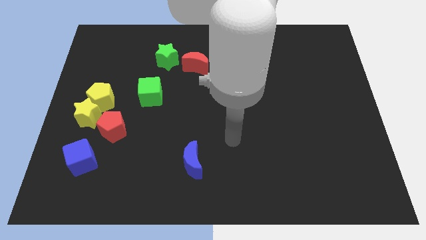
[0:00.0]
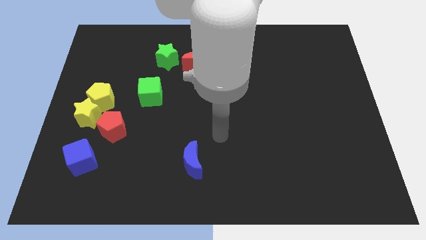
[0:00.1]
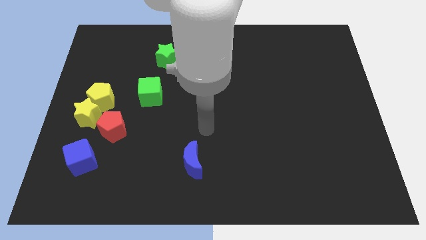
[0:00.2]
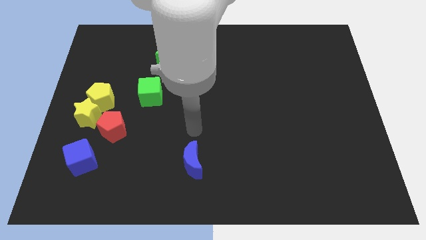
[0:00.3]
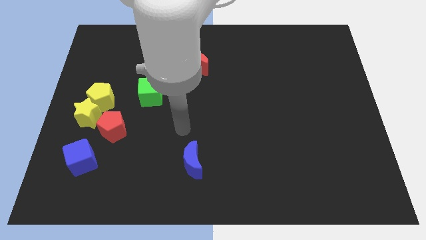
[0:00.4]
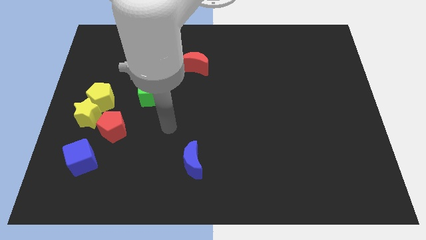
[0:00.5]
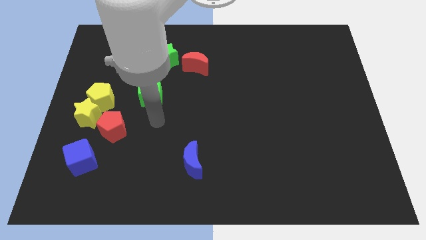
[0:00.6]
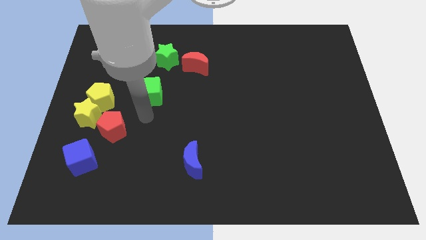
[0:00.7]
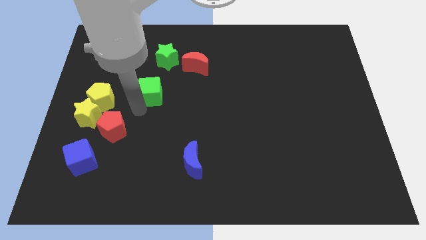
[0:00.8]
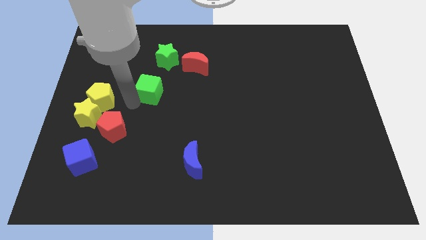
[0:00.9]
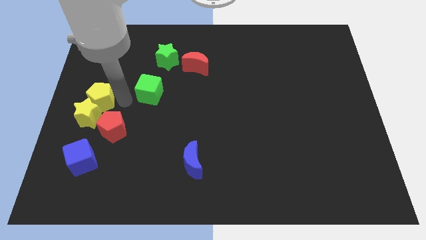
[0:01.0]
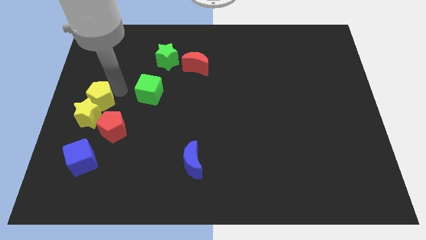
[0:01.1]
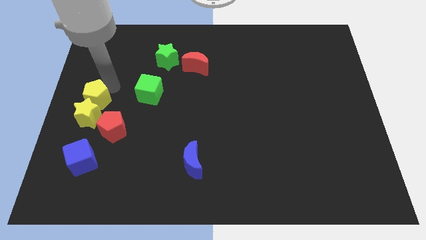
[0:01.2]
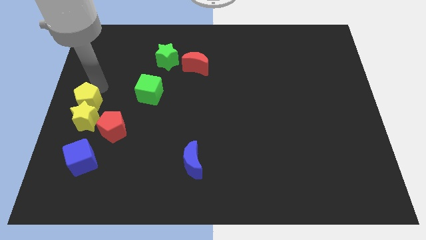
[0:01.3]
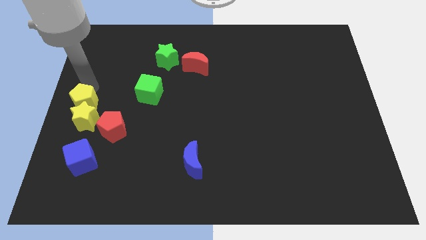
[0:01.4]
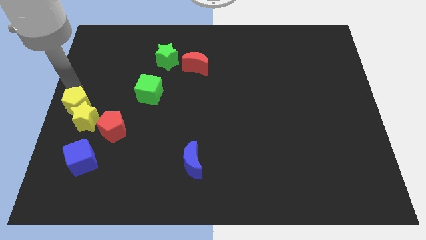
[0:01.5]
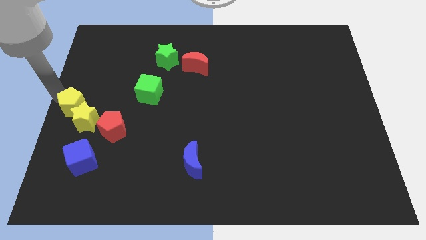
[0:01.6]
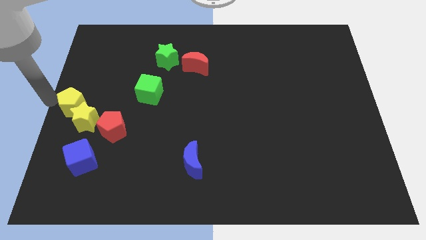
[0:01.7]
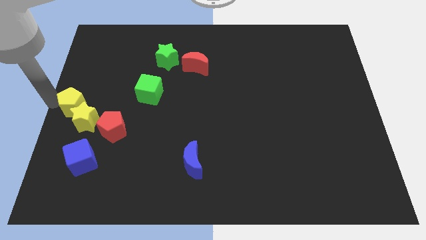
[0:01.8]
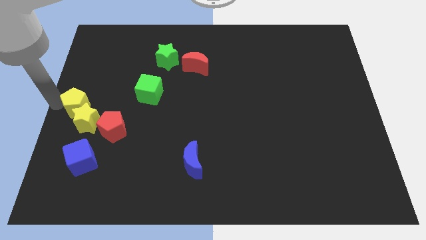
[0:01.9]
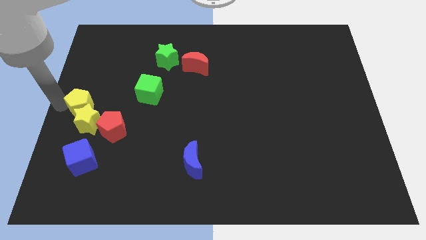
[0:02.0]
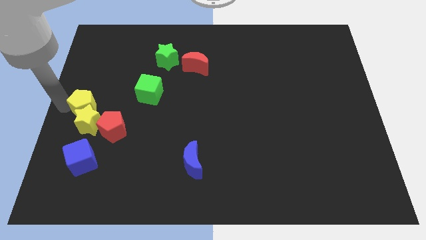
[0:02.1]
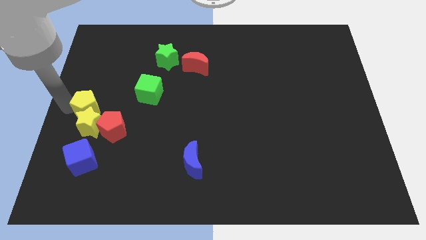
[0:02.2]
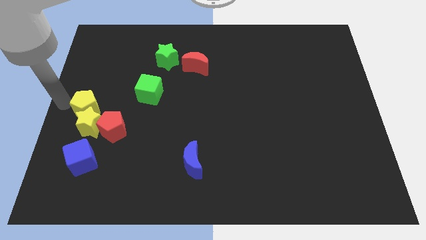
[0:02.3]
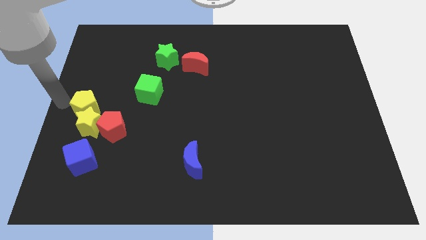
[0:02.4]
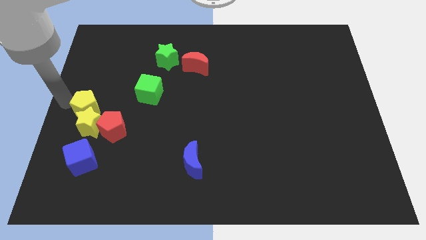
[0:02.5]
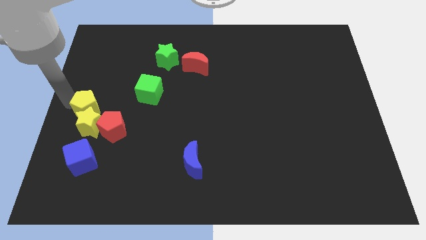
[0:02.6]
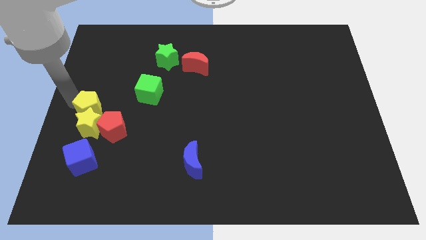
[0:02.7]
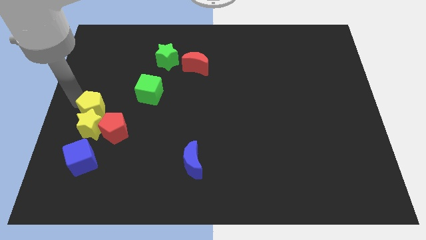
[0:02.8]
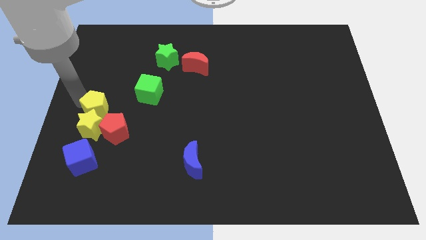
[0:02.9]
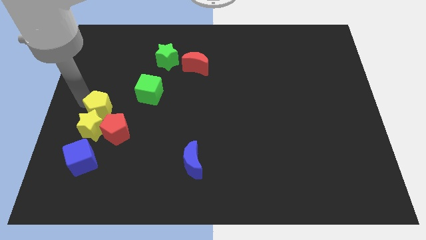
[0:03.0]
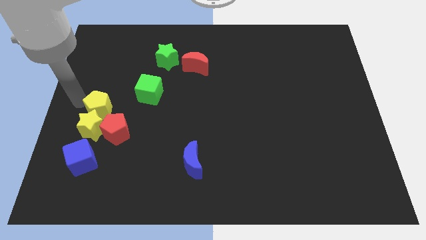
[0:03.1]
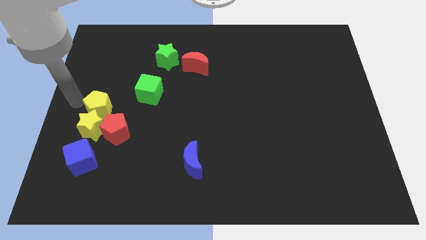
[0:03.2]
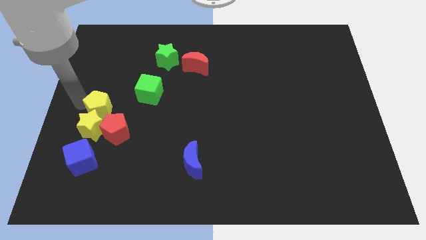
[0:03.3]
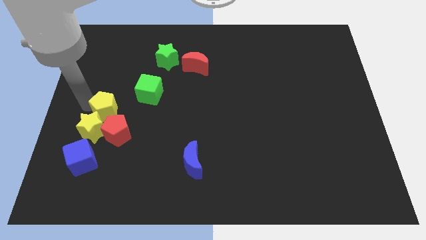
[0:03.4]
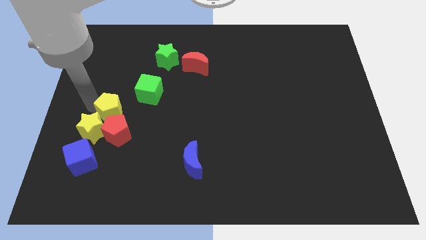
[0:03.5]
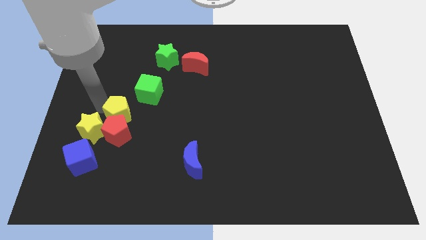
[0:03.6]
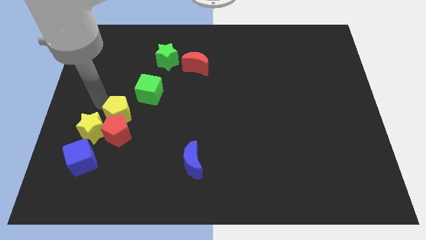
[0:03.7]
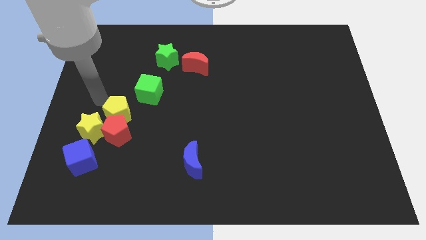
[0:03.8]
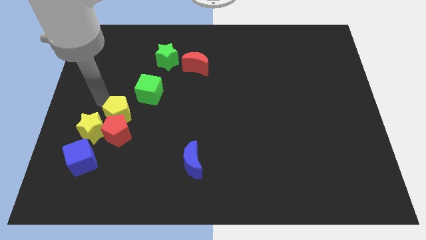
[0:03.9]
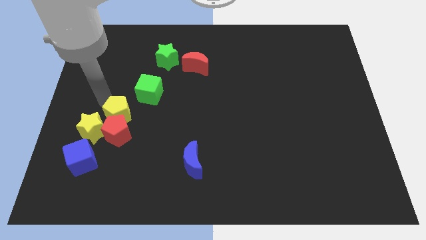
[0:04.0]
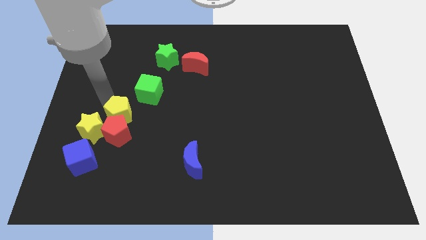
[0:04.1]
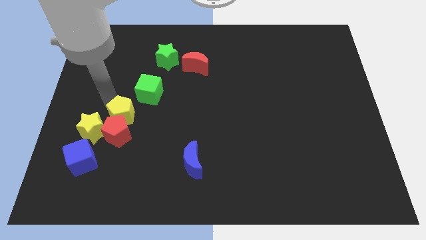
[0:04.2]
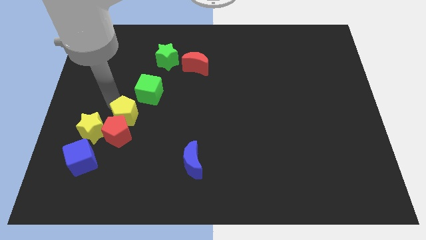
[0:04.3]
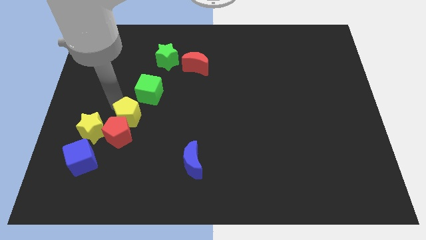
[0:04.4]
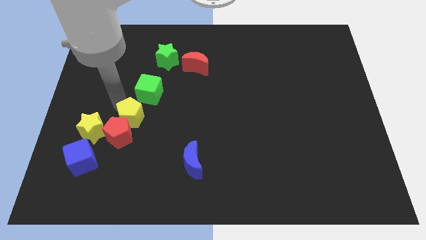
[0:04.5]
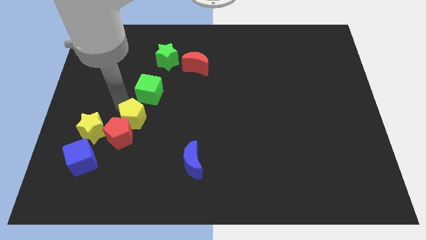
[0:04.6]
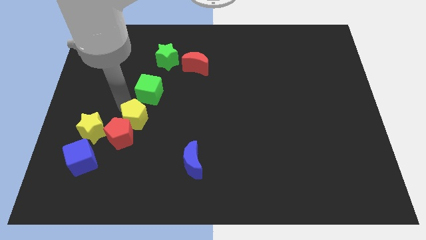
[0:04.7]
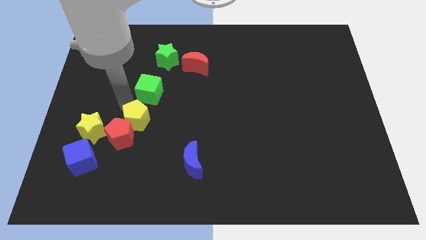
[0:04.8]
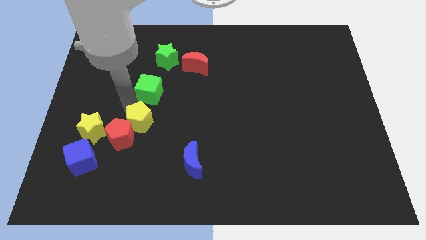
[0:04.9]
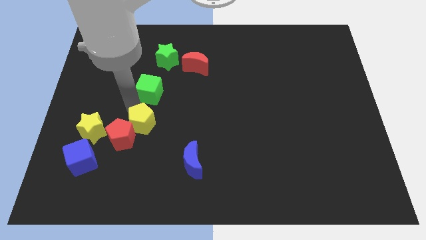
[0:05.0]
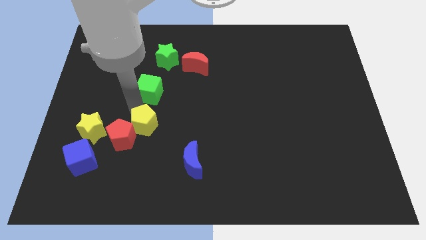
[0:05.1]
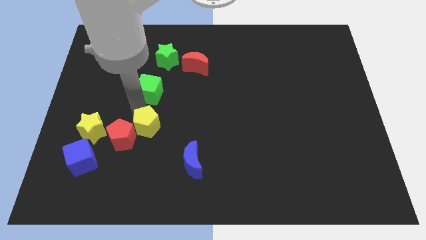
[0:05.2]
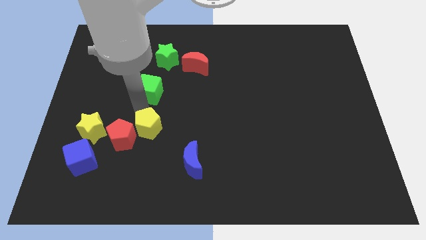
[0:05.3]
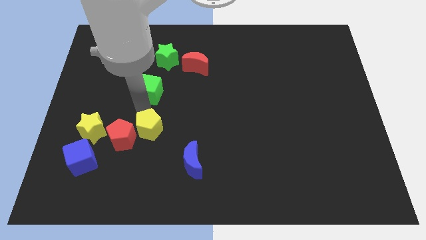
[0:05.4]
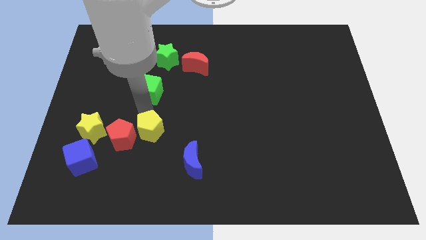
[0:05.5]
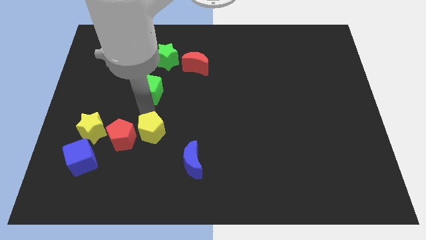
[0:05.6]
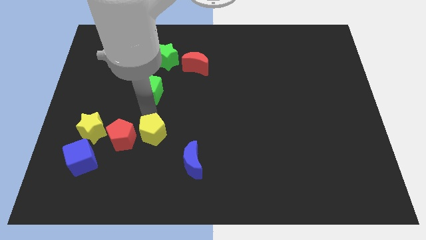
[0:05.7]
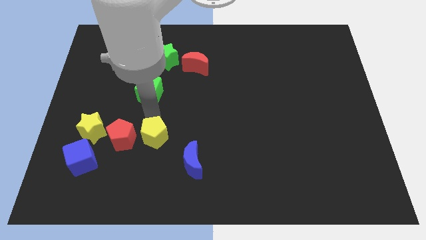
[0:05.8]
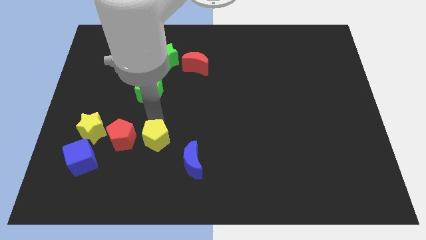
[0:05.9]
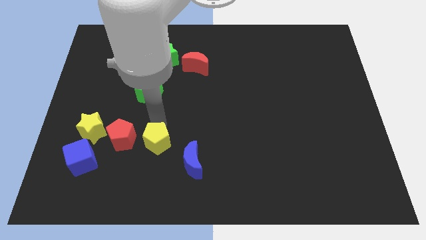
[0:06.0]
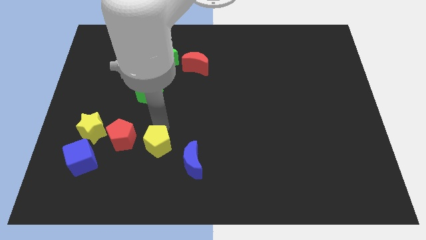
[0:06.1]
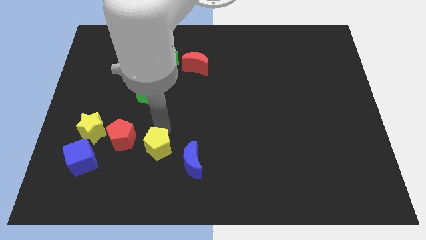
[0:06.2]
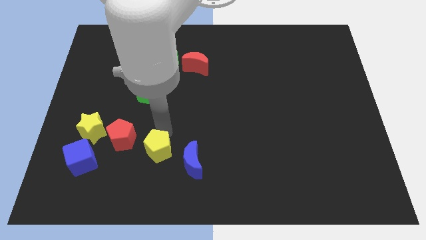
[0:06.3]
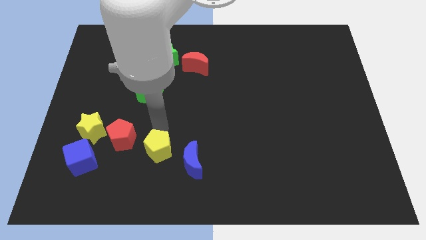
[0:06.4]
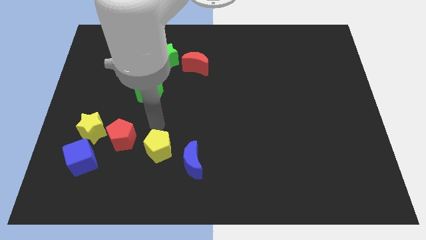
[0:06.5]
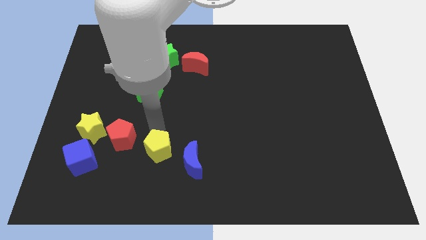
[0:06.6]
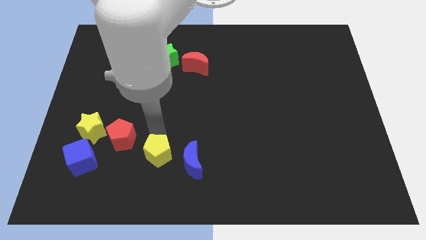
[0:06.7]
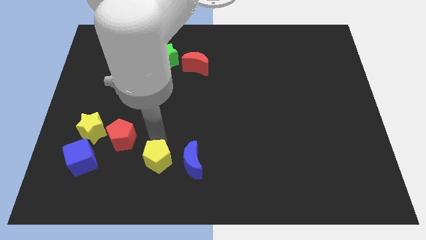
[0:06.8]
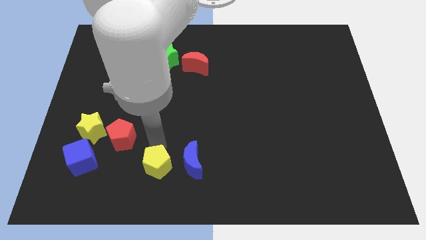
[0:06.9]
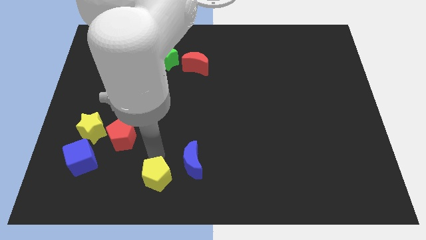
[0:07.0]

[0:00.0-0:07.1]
move the yellow pentagon to the bottom
